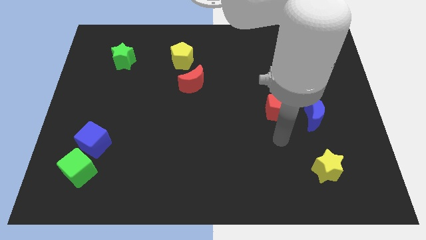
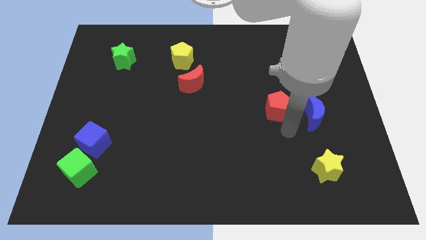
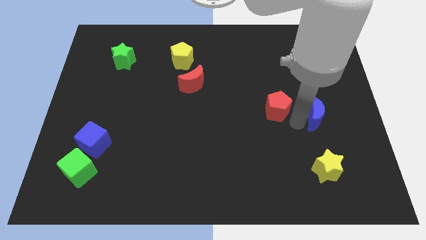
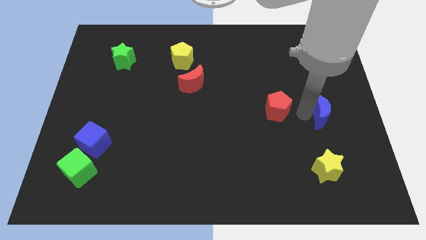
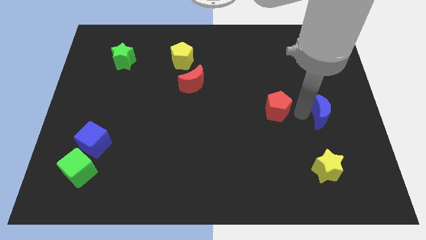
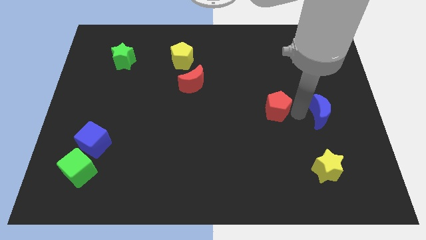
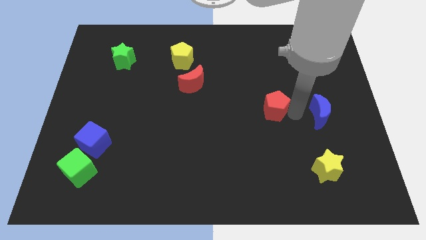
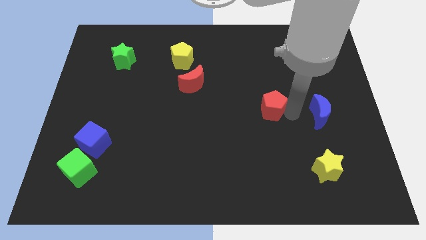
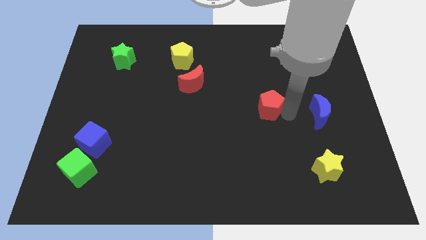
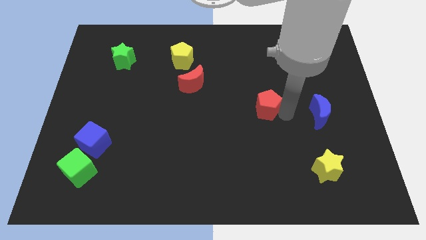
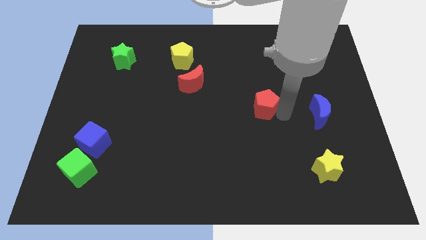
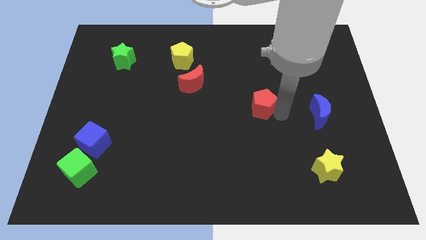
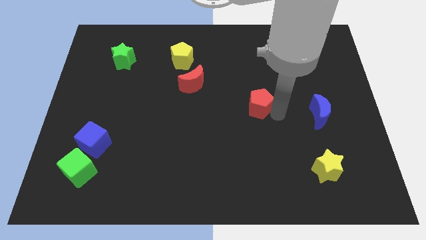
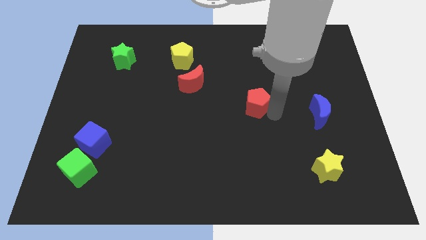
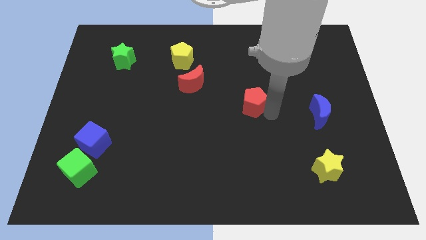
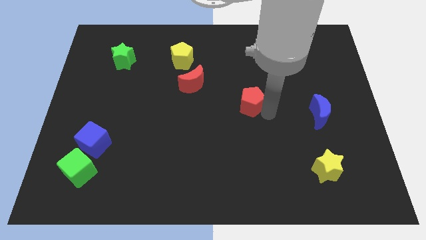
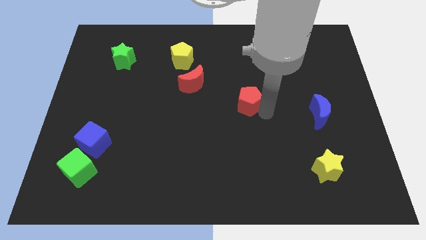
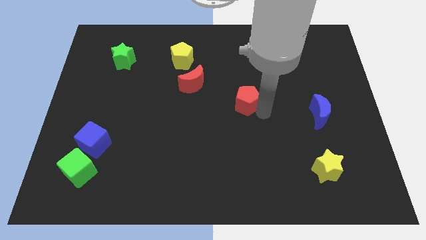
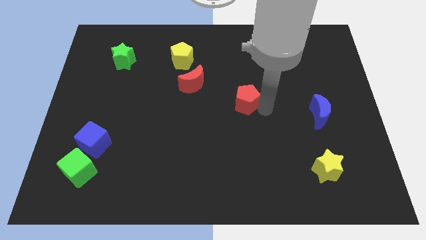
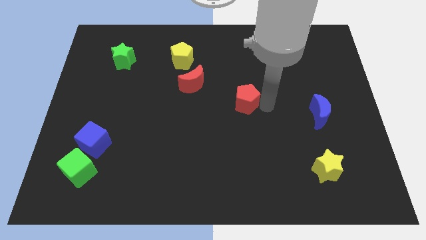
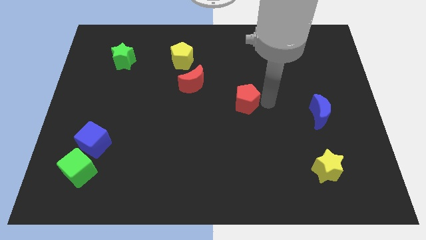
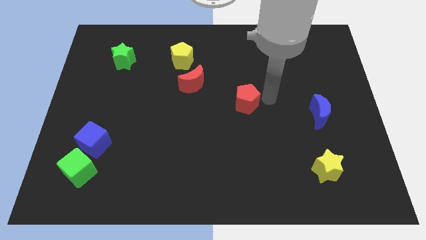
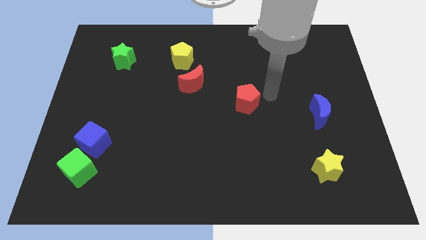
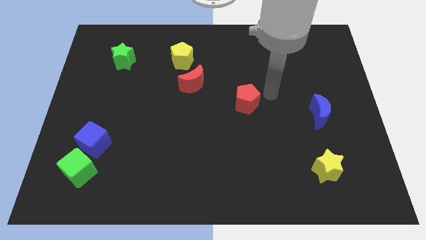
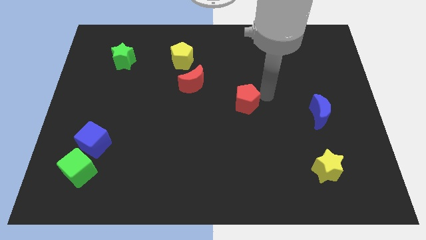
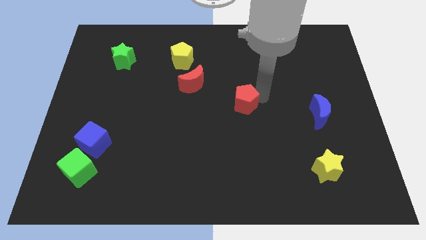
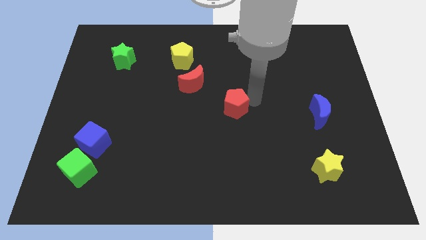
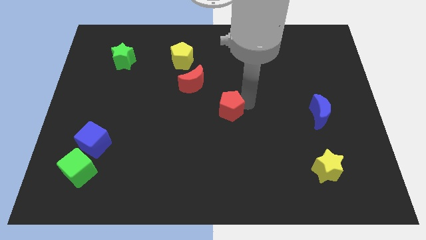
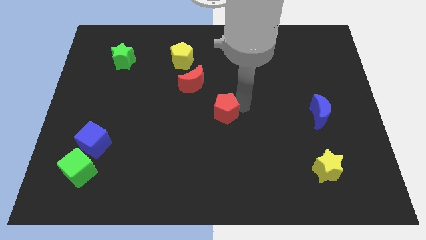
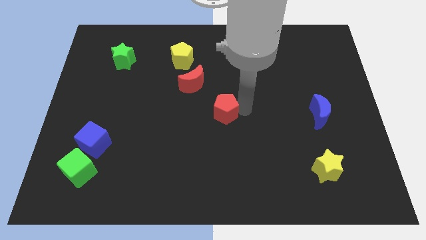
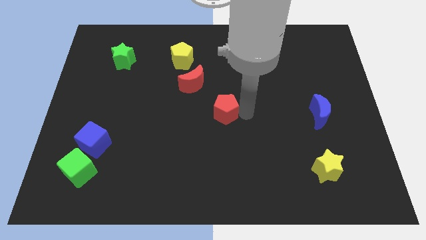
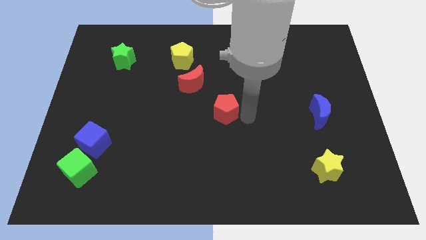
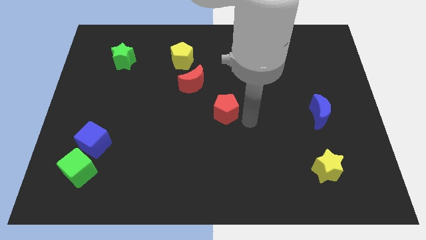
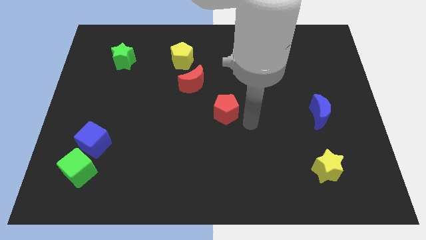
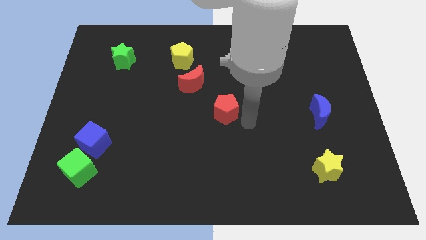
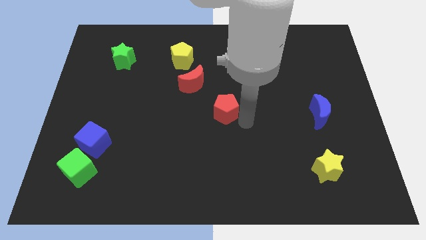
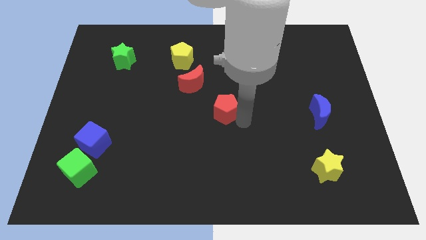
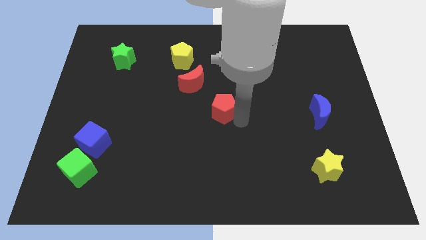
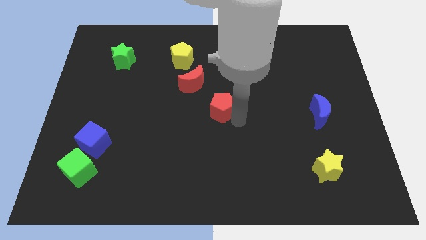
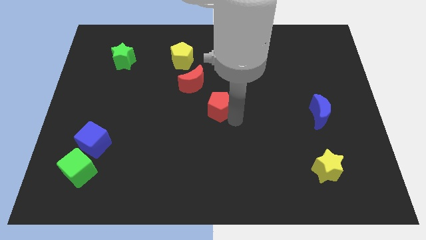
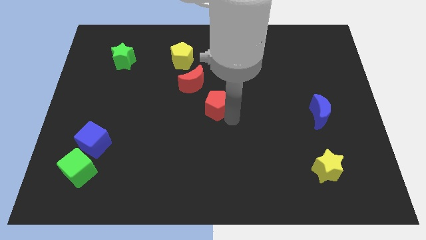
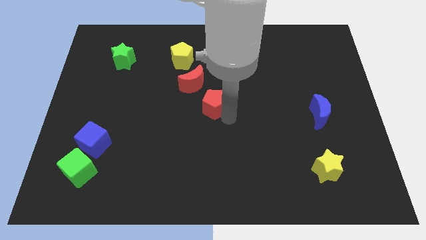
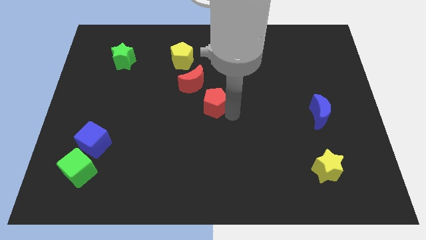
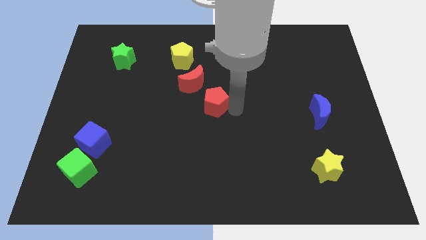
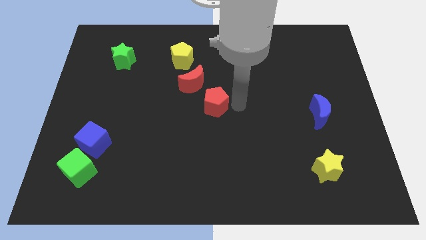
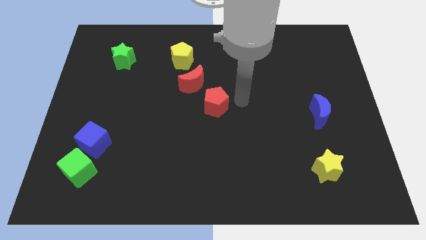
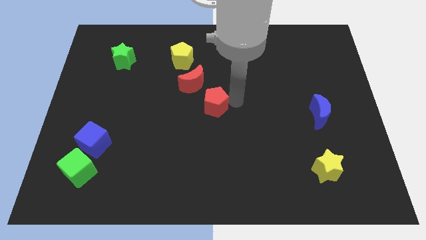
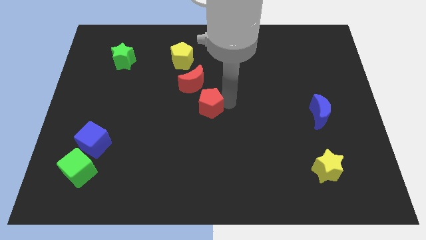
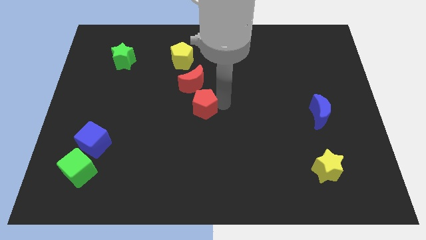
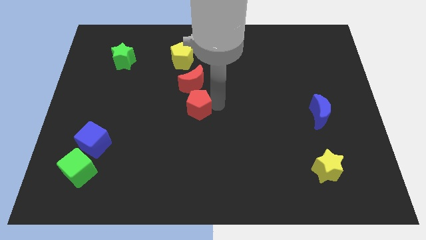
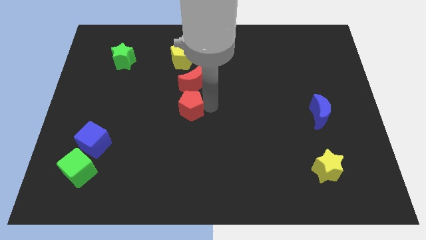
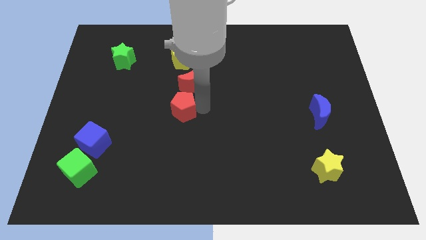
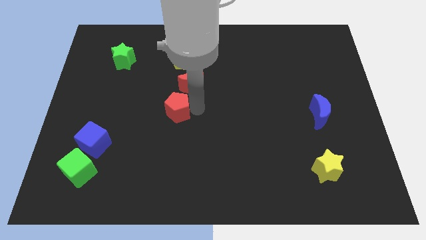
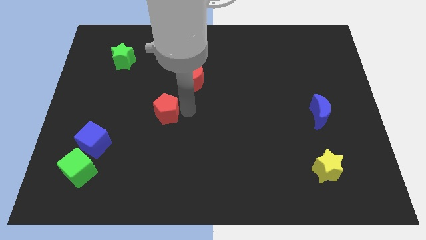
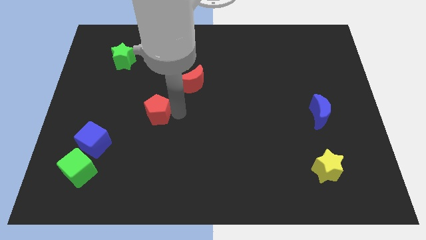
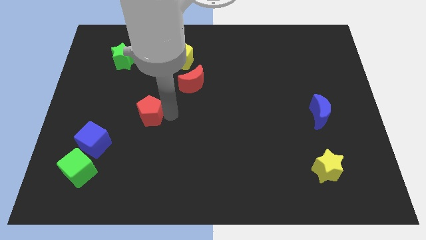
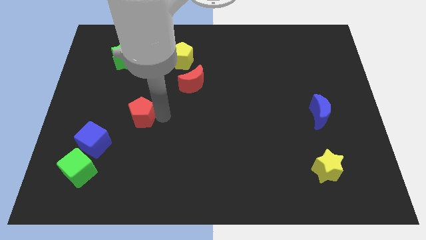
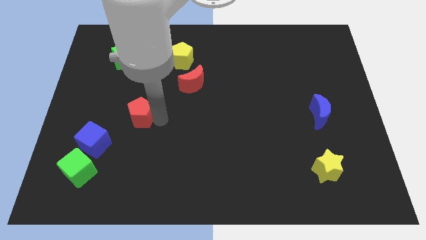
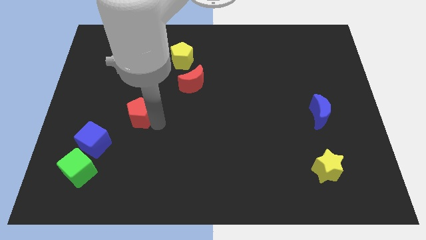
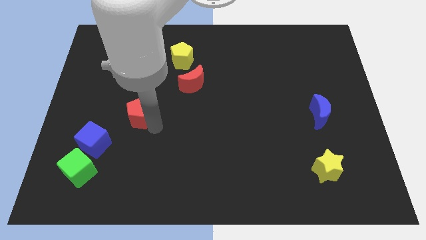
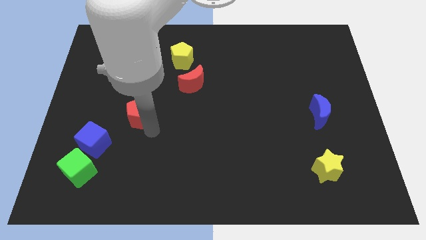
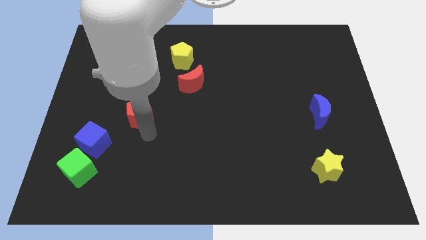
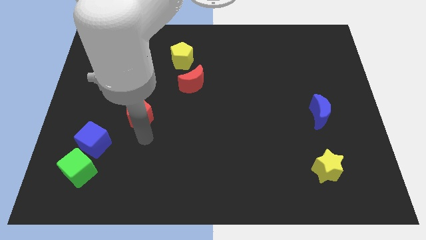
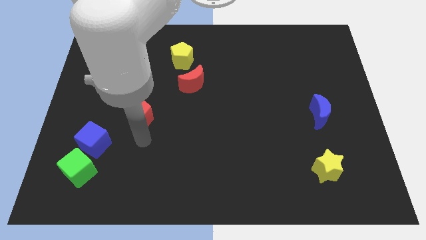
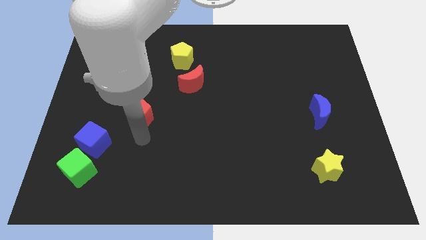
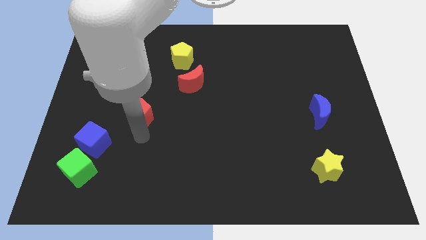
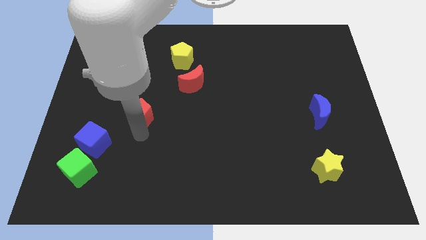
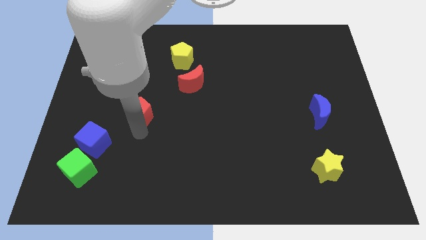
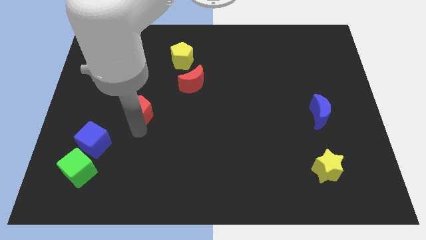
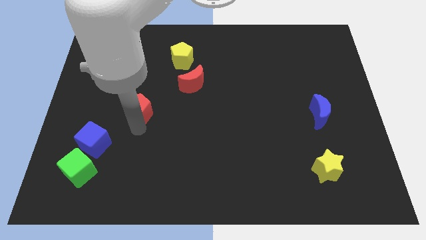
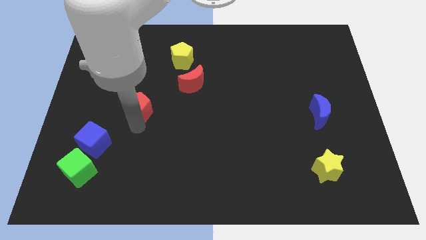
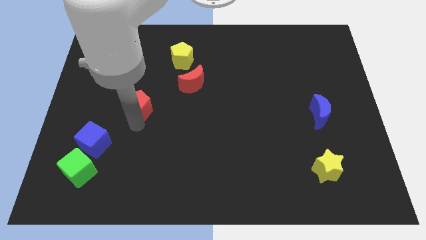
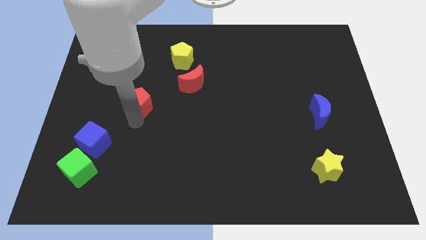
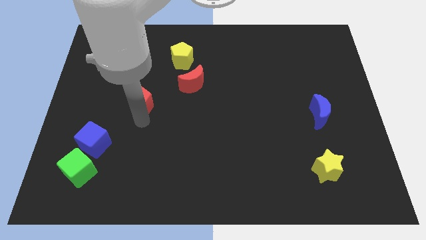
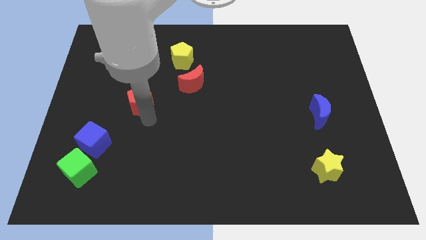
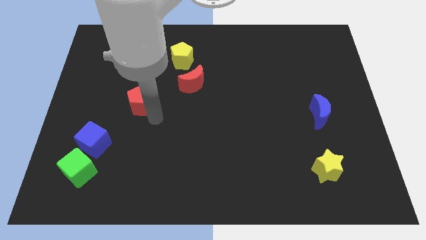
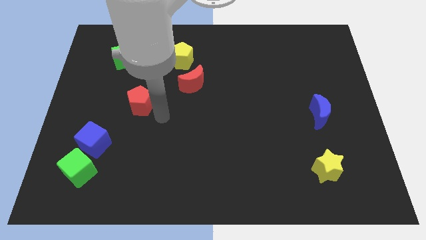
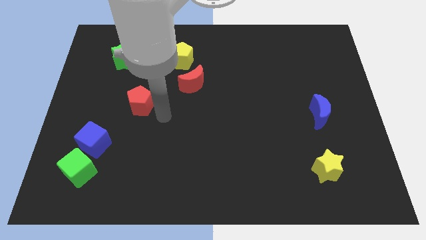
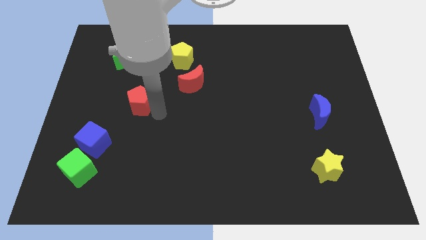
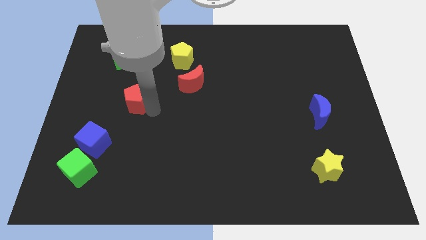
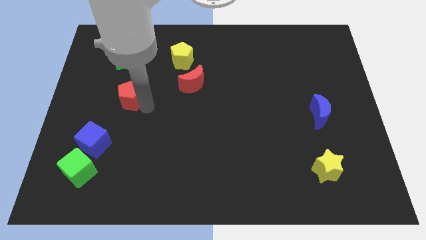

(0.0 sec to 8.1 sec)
move the red pentagon to the bottom of the green star
